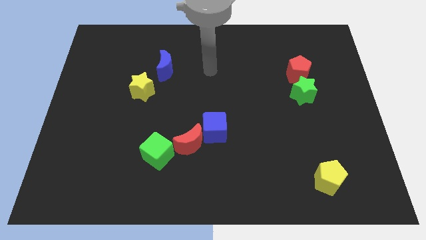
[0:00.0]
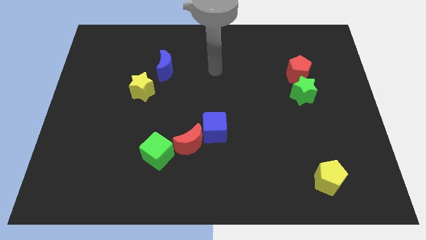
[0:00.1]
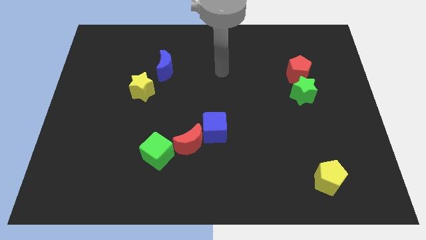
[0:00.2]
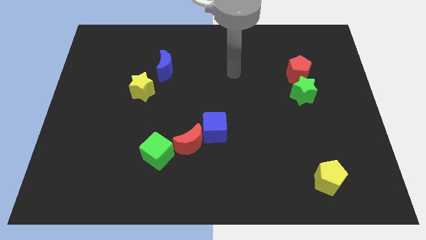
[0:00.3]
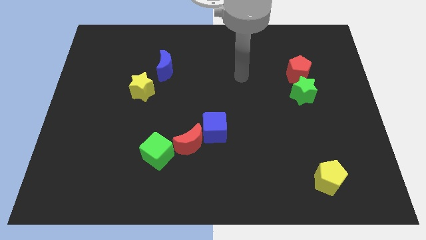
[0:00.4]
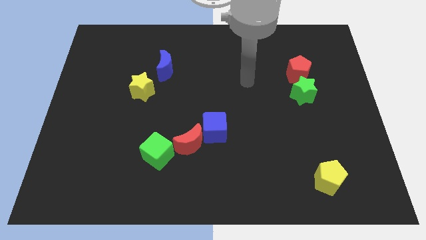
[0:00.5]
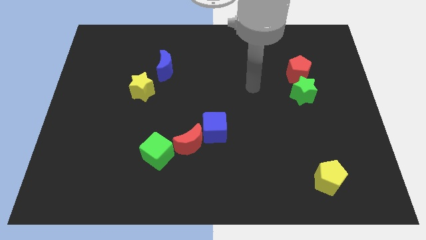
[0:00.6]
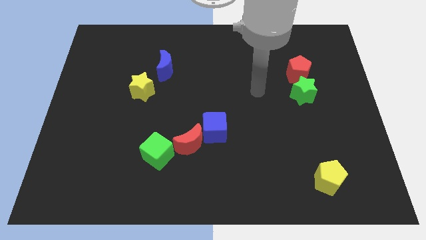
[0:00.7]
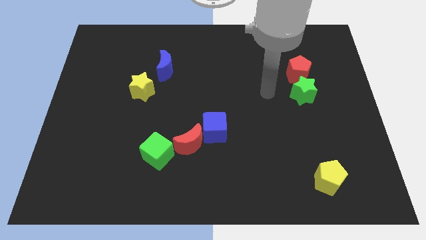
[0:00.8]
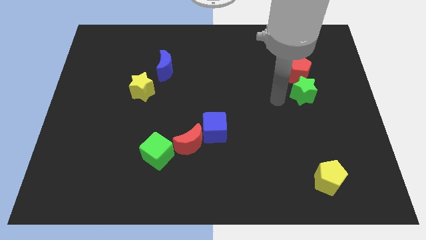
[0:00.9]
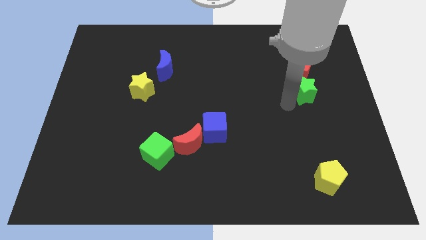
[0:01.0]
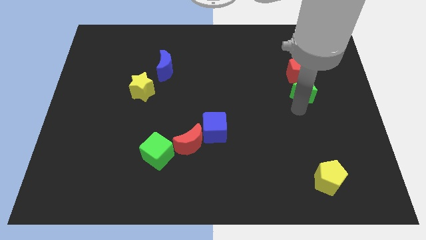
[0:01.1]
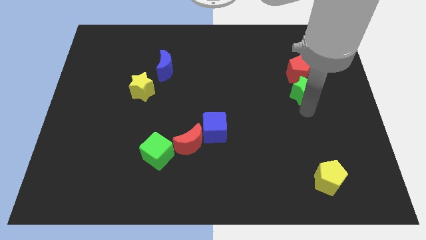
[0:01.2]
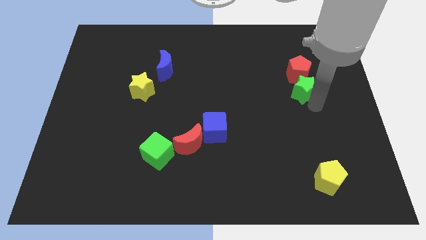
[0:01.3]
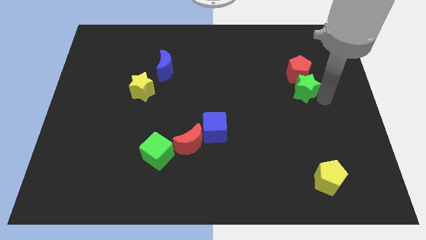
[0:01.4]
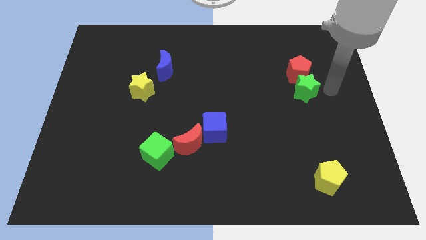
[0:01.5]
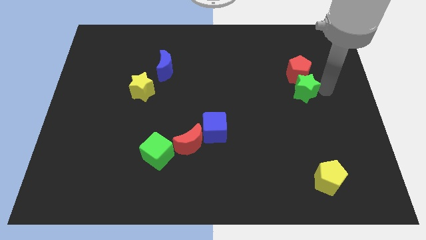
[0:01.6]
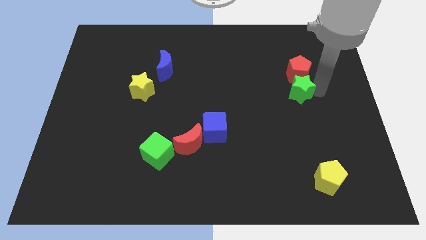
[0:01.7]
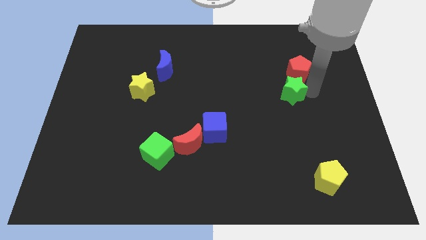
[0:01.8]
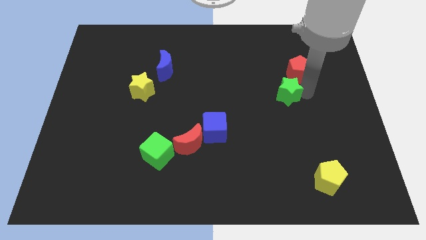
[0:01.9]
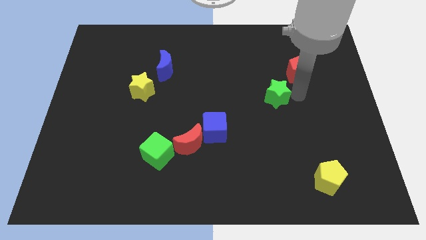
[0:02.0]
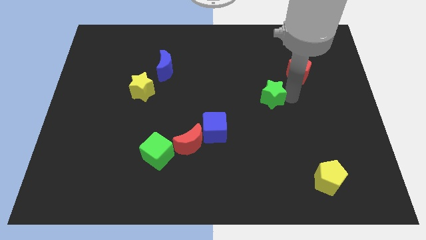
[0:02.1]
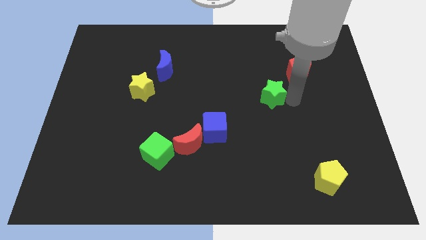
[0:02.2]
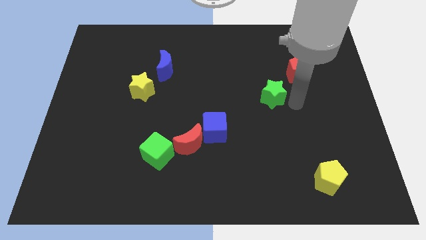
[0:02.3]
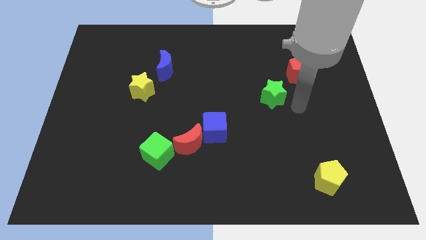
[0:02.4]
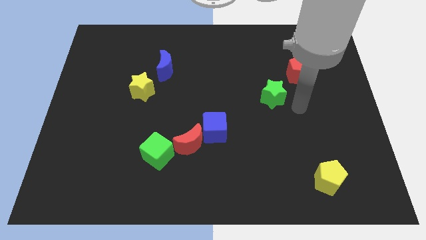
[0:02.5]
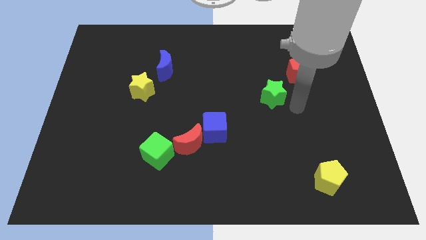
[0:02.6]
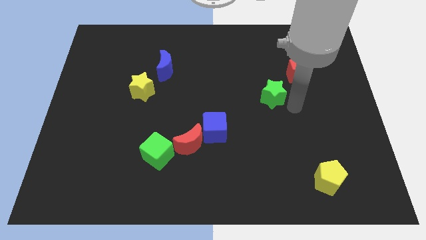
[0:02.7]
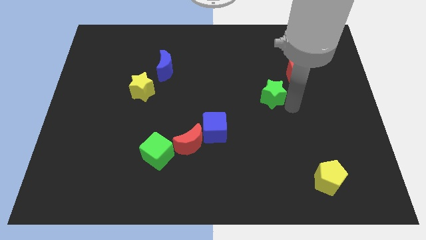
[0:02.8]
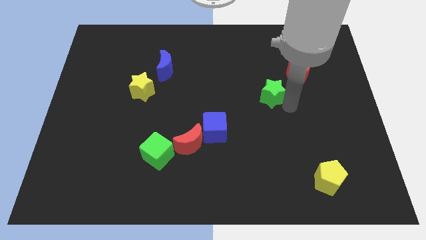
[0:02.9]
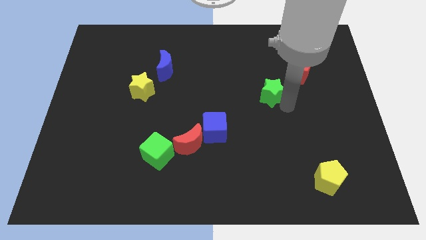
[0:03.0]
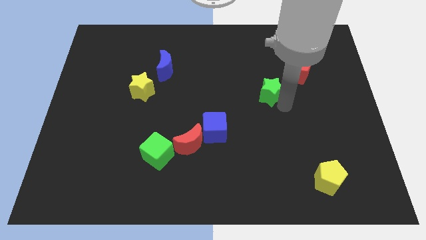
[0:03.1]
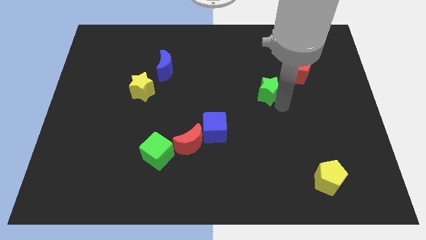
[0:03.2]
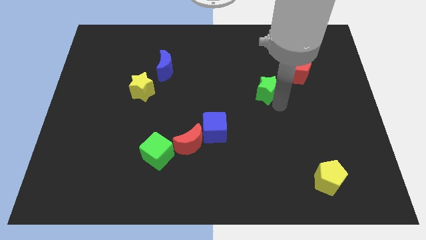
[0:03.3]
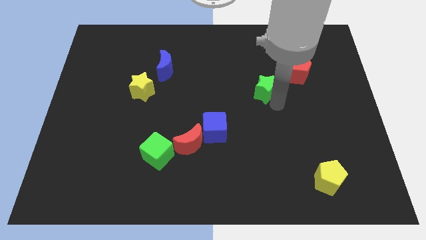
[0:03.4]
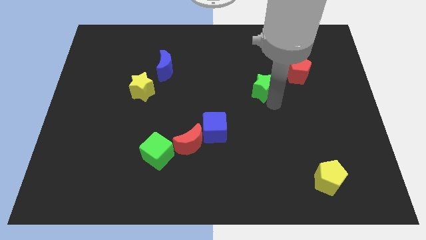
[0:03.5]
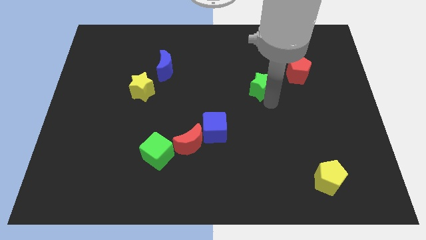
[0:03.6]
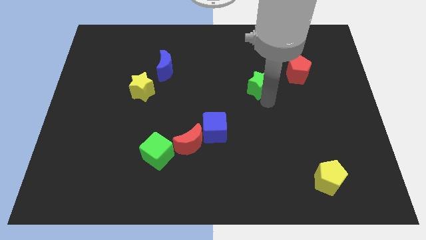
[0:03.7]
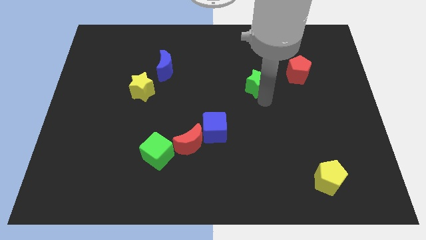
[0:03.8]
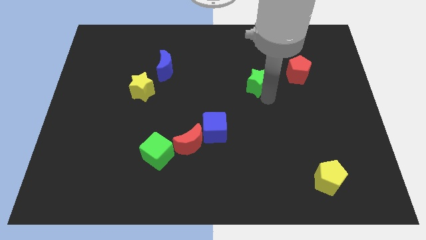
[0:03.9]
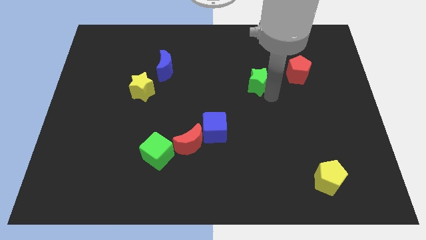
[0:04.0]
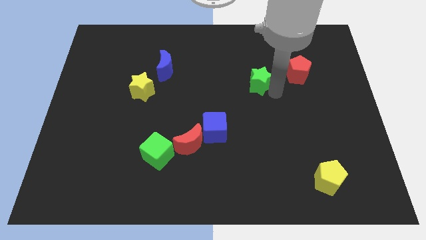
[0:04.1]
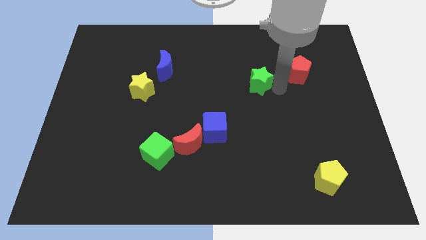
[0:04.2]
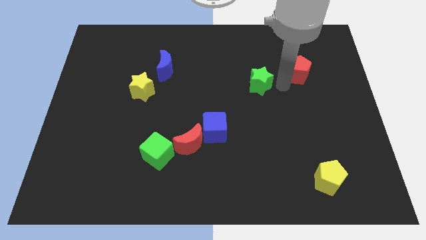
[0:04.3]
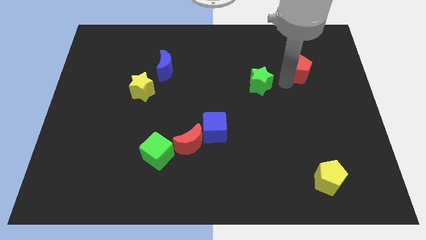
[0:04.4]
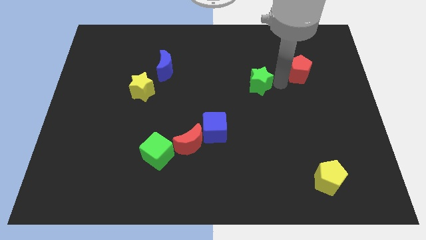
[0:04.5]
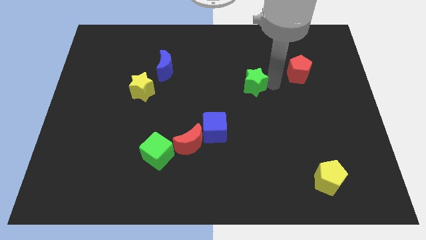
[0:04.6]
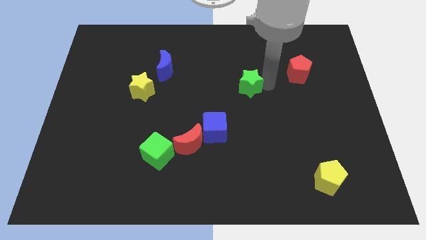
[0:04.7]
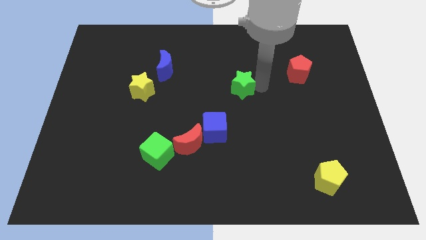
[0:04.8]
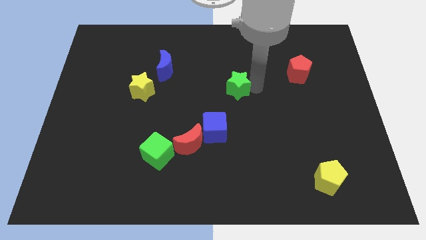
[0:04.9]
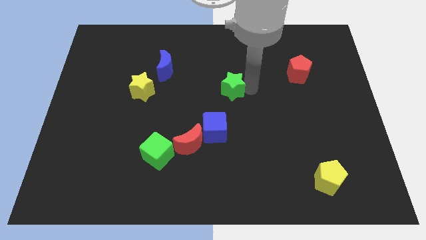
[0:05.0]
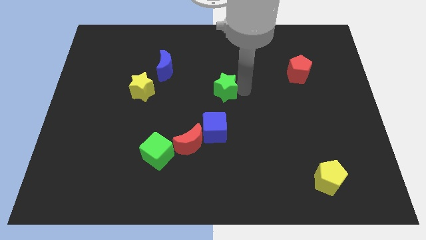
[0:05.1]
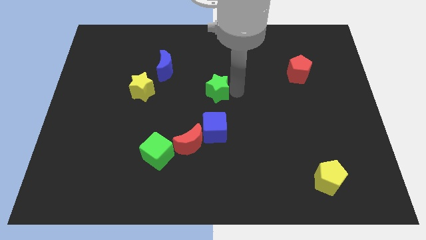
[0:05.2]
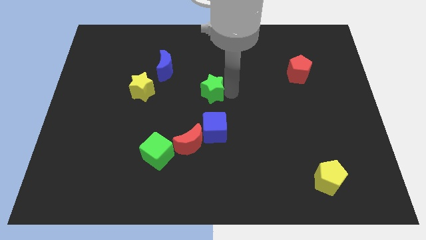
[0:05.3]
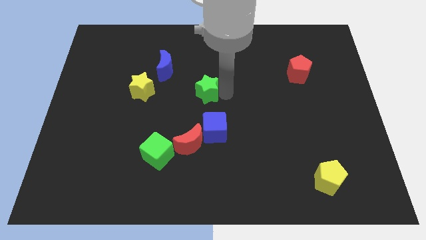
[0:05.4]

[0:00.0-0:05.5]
move the green star to the right of the yellow star

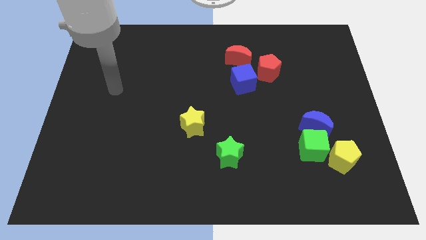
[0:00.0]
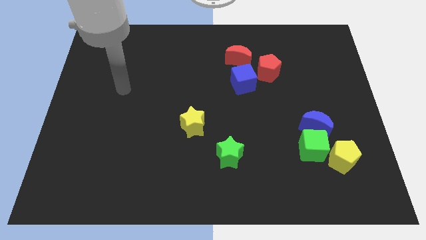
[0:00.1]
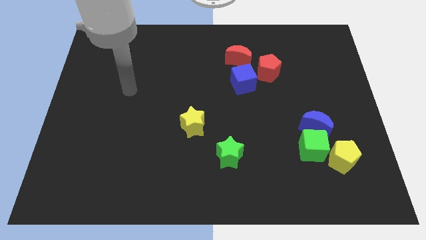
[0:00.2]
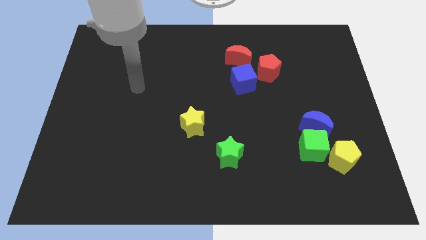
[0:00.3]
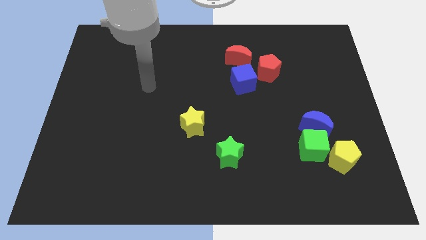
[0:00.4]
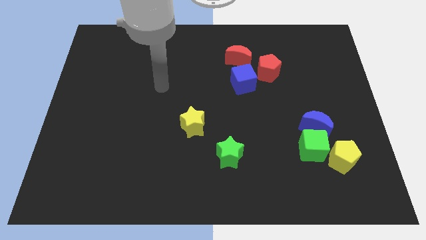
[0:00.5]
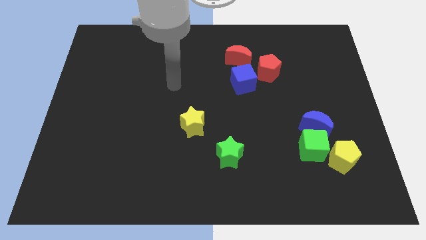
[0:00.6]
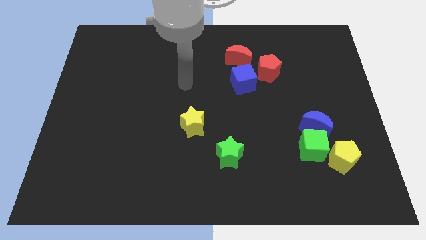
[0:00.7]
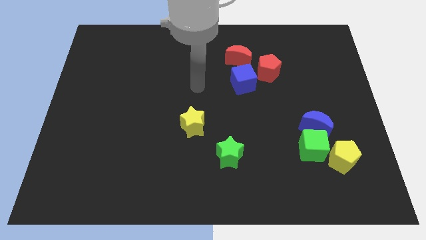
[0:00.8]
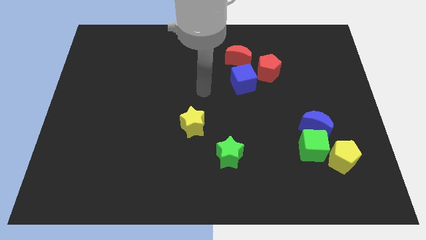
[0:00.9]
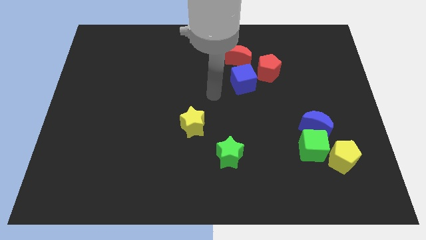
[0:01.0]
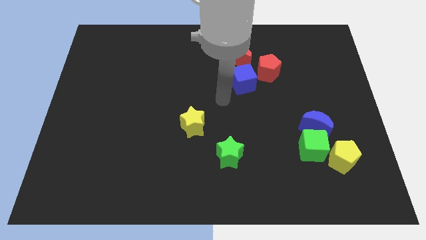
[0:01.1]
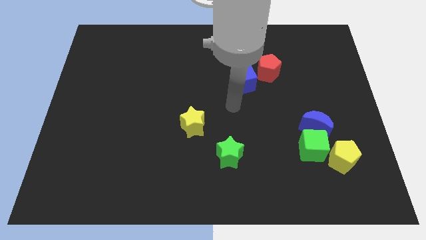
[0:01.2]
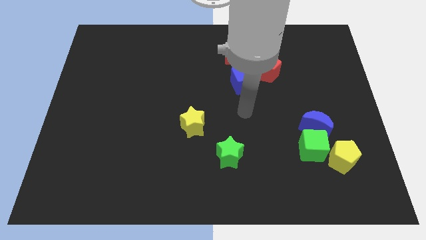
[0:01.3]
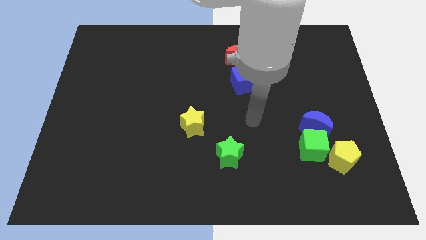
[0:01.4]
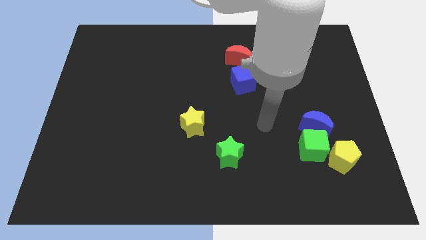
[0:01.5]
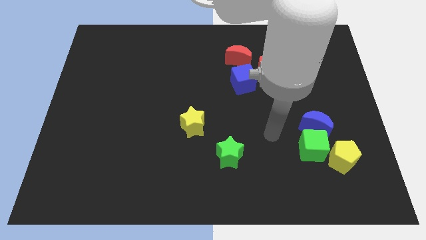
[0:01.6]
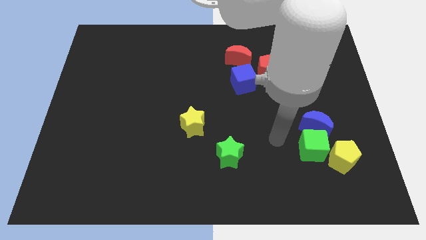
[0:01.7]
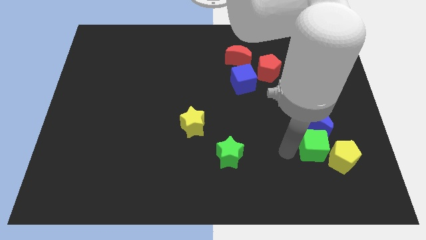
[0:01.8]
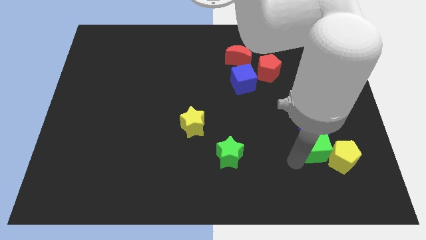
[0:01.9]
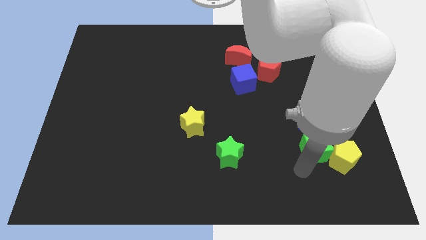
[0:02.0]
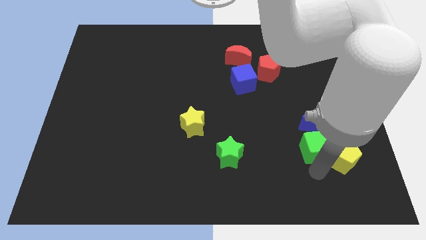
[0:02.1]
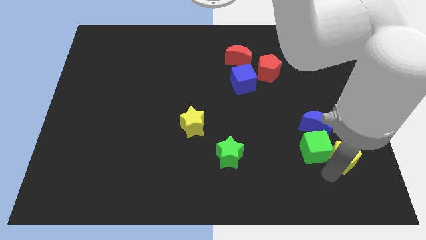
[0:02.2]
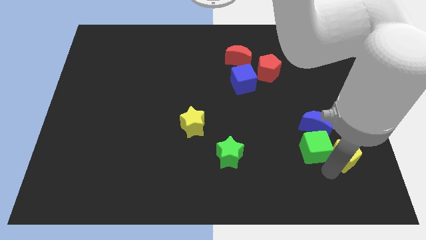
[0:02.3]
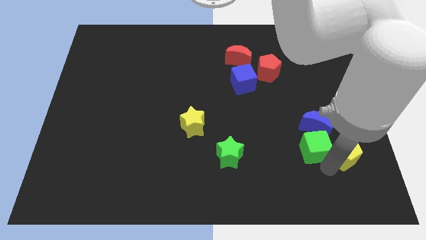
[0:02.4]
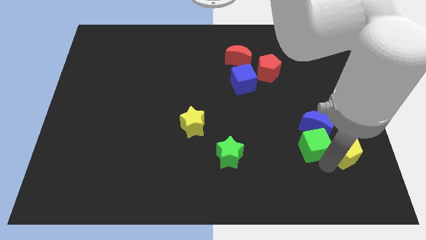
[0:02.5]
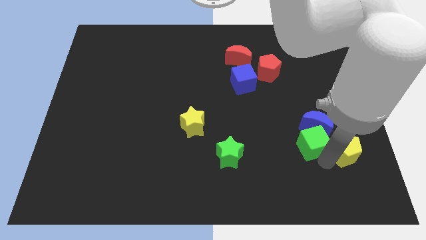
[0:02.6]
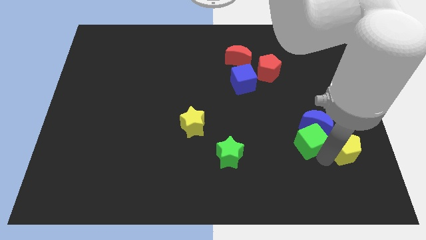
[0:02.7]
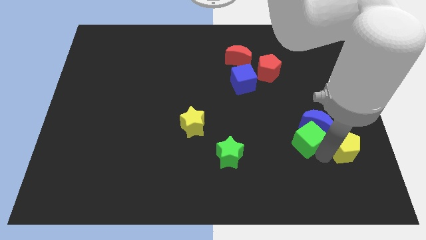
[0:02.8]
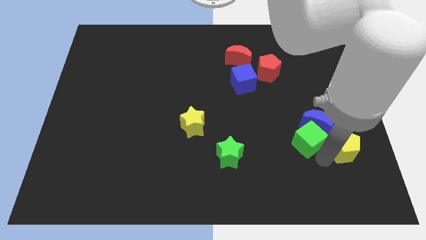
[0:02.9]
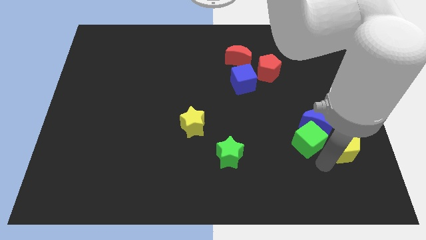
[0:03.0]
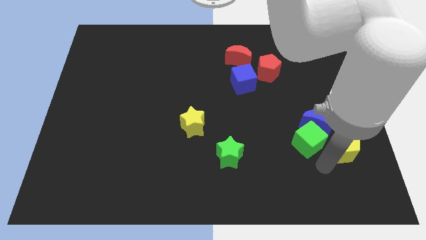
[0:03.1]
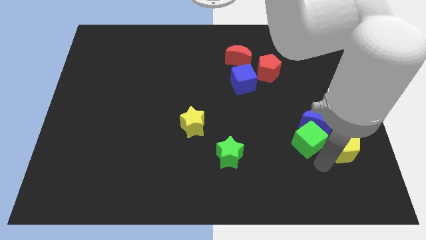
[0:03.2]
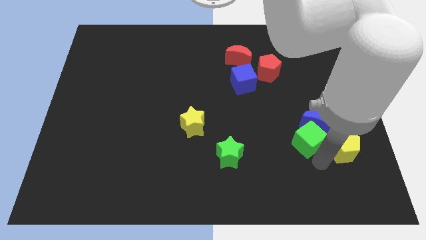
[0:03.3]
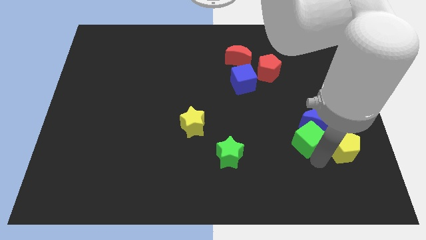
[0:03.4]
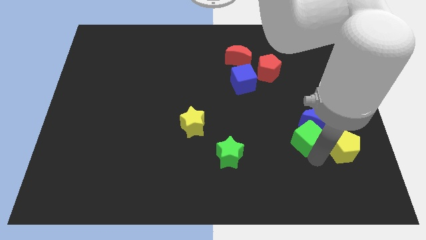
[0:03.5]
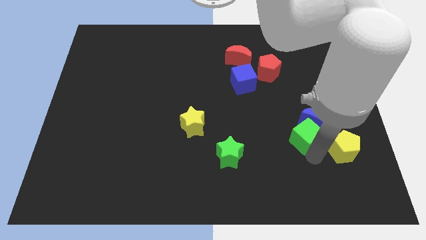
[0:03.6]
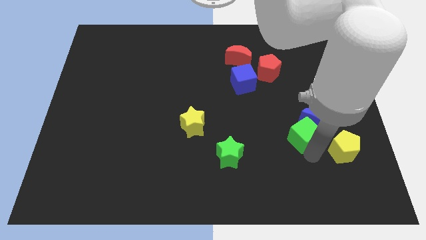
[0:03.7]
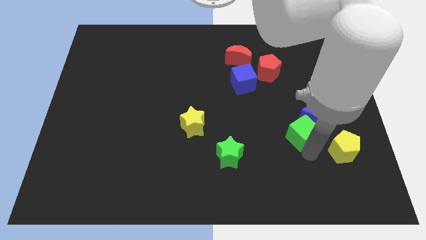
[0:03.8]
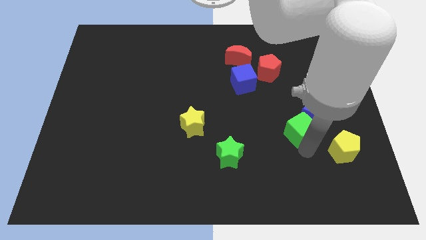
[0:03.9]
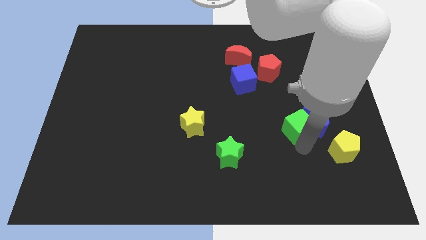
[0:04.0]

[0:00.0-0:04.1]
put the green cube diagonally up and to the left of the blue moon
